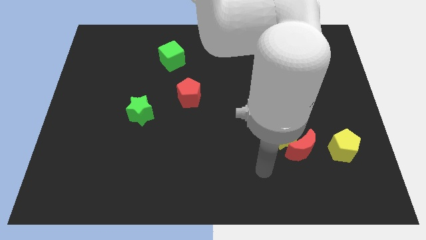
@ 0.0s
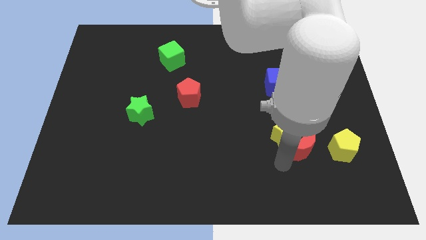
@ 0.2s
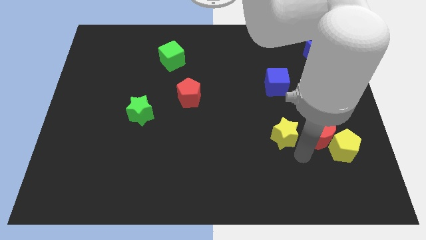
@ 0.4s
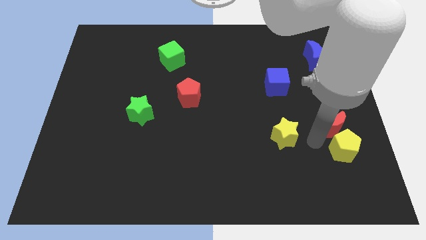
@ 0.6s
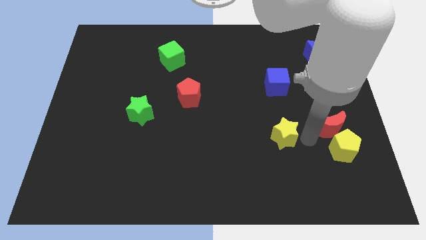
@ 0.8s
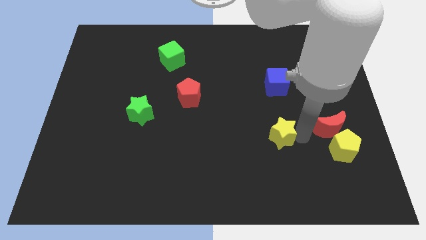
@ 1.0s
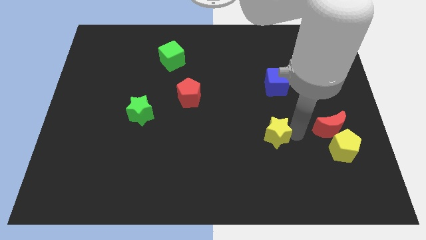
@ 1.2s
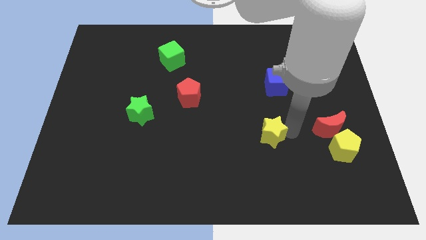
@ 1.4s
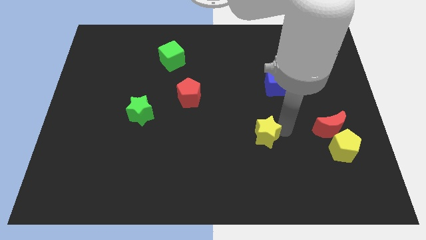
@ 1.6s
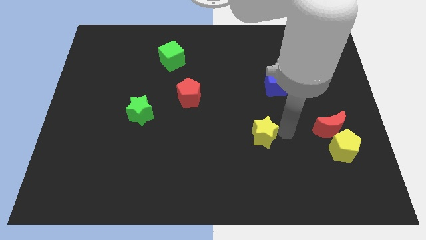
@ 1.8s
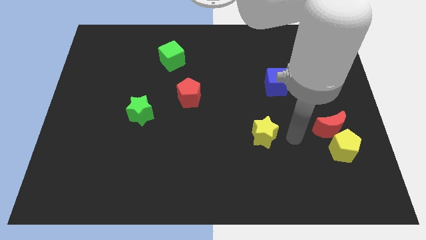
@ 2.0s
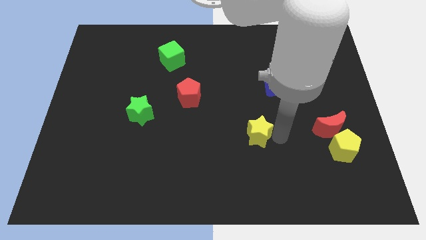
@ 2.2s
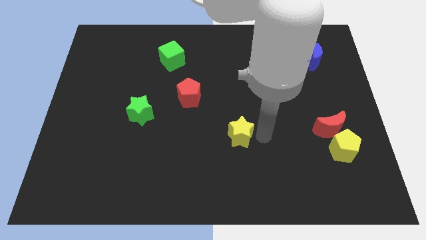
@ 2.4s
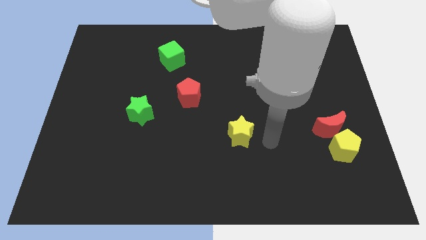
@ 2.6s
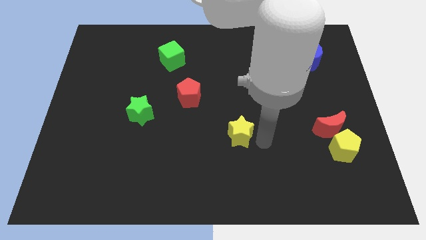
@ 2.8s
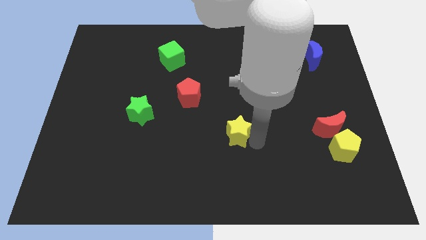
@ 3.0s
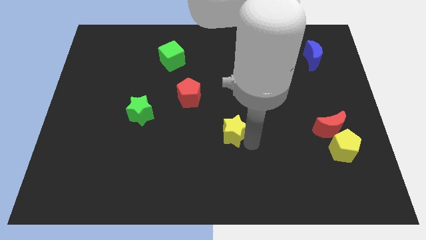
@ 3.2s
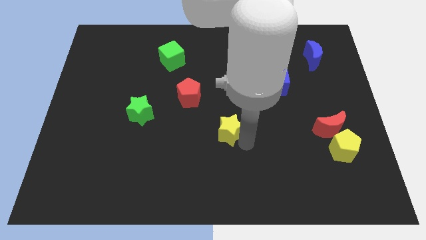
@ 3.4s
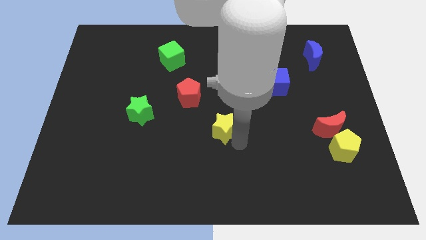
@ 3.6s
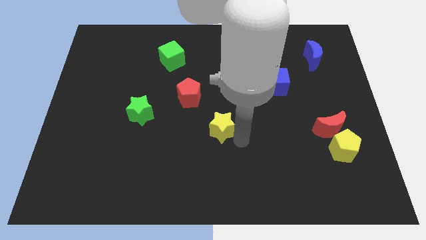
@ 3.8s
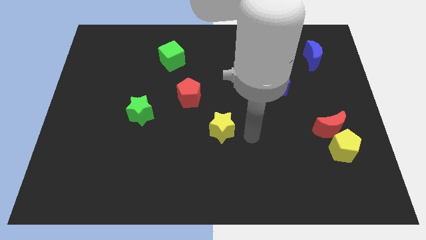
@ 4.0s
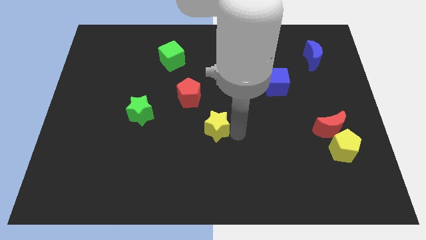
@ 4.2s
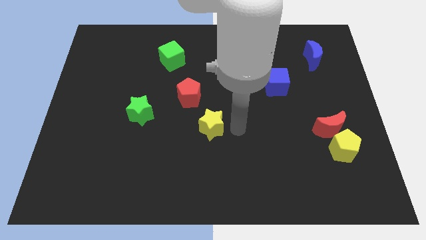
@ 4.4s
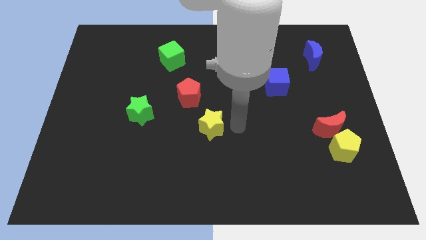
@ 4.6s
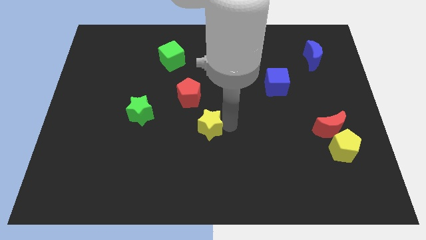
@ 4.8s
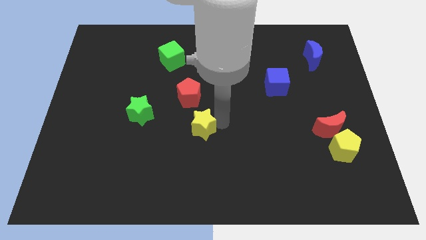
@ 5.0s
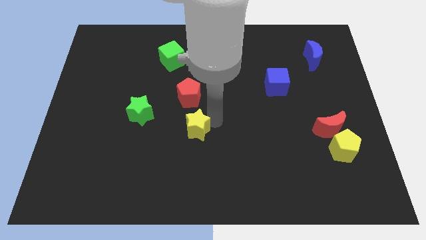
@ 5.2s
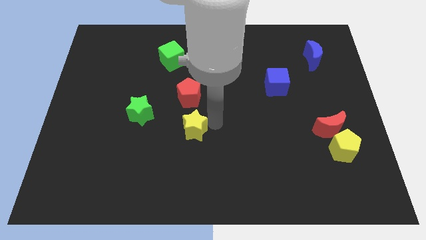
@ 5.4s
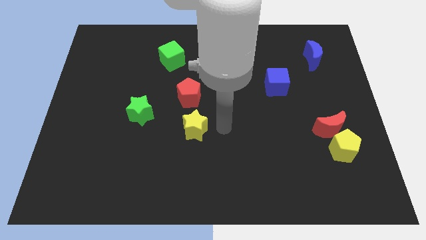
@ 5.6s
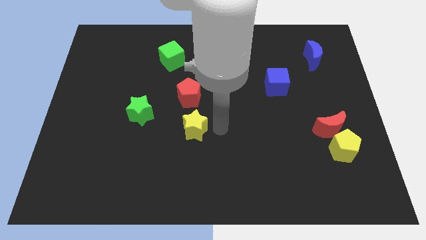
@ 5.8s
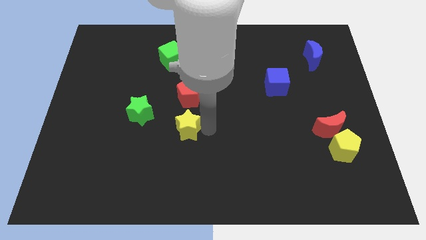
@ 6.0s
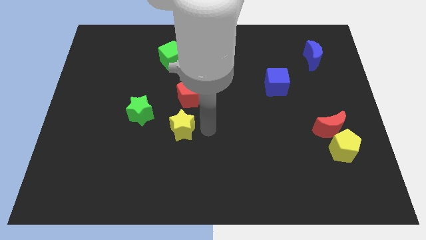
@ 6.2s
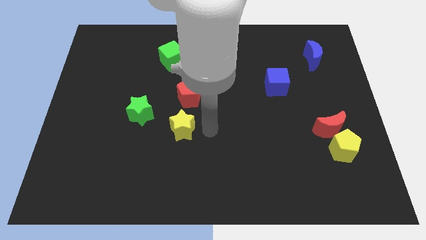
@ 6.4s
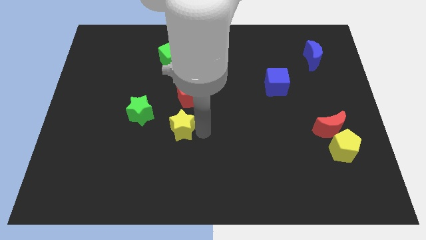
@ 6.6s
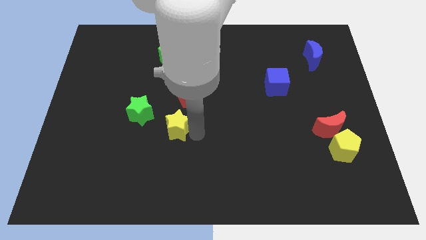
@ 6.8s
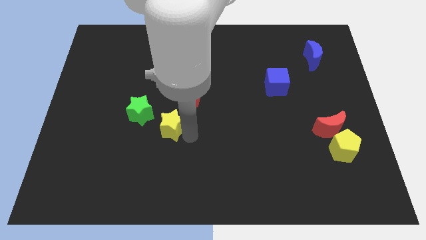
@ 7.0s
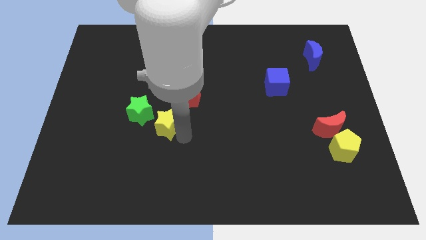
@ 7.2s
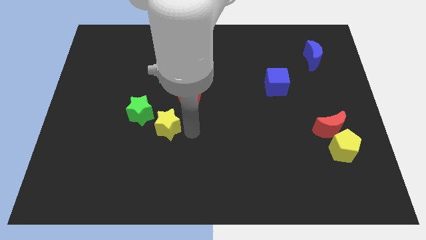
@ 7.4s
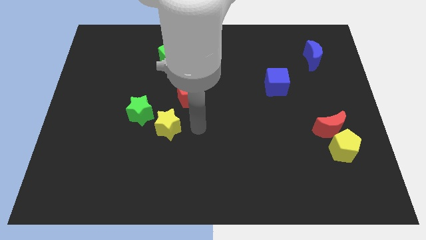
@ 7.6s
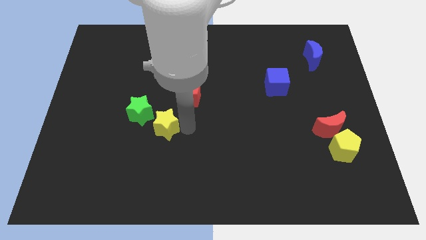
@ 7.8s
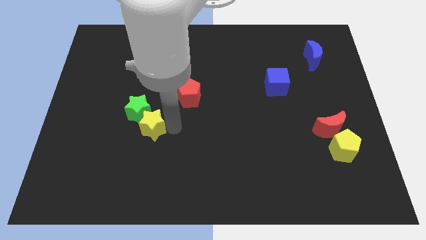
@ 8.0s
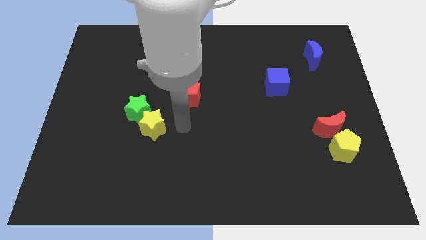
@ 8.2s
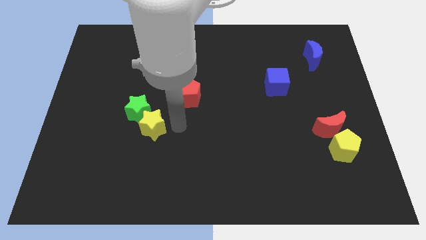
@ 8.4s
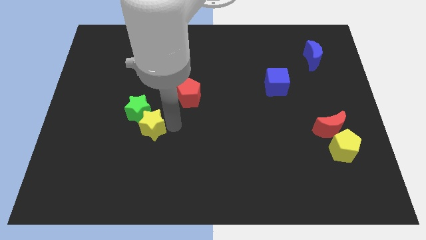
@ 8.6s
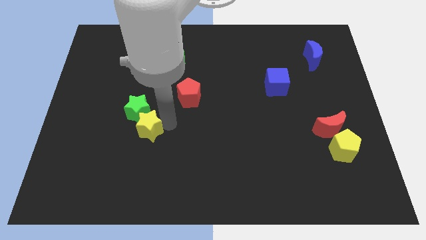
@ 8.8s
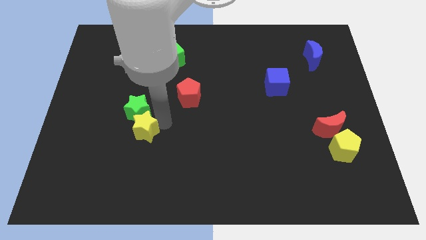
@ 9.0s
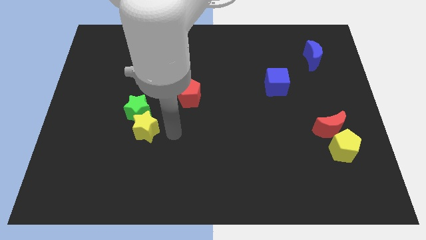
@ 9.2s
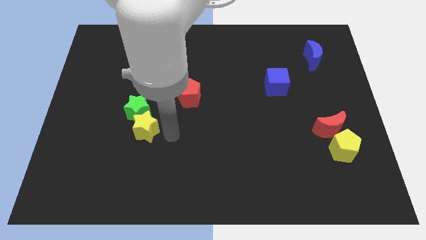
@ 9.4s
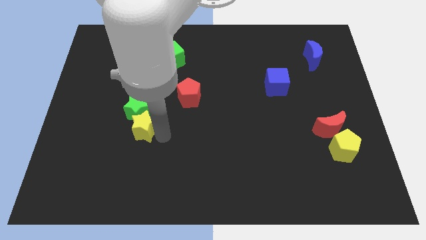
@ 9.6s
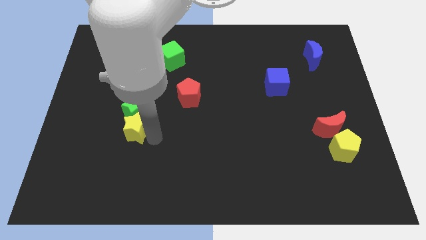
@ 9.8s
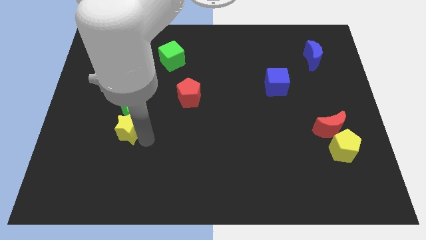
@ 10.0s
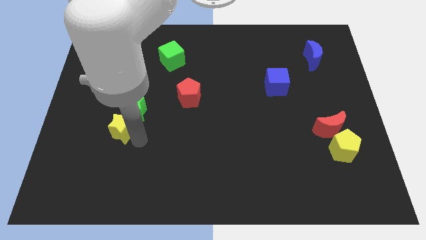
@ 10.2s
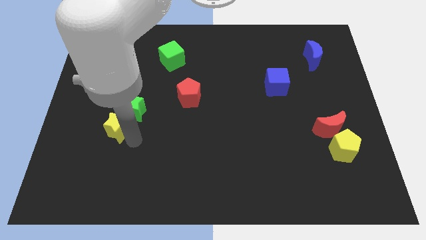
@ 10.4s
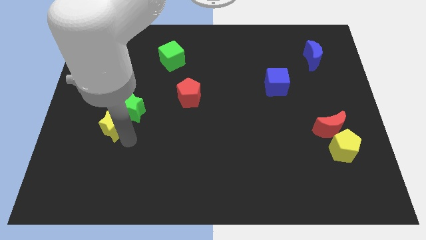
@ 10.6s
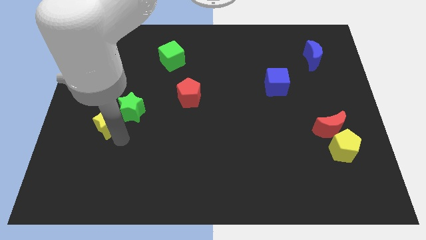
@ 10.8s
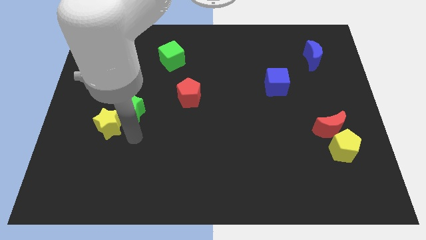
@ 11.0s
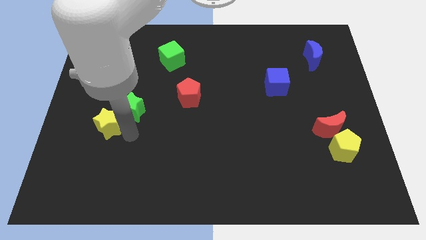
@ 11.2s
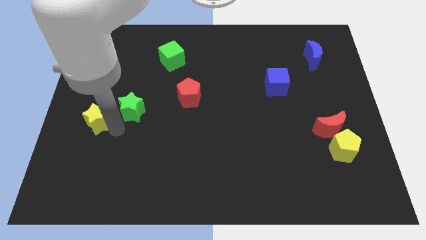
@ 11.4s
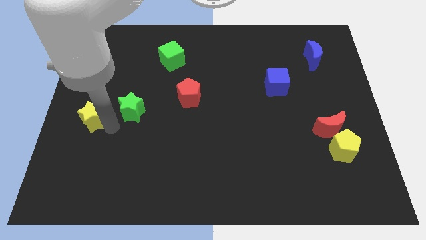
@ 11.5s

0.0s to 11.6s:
slide the yellow star to the left side of the board

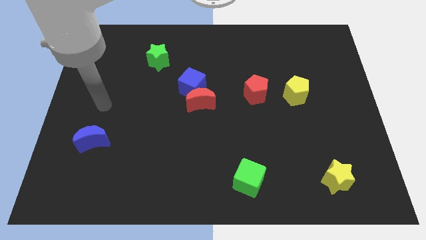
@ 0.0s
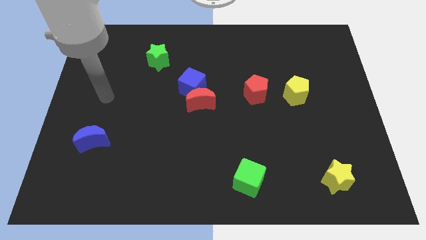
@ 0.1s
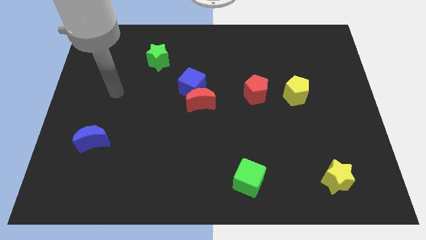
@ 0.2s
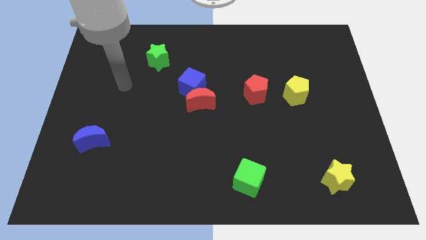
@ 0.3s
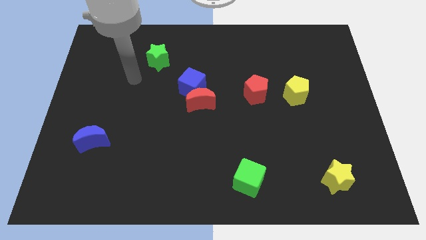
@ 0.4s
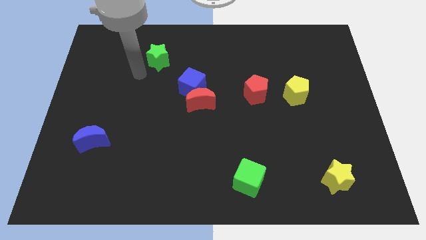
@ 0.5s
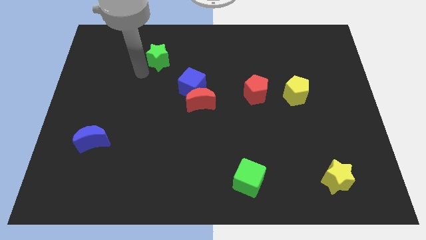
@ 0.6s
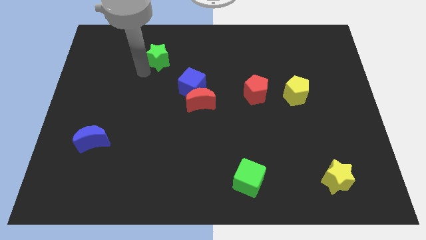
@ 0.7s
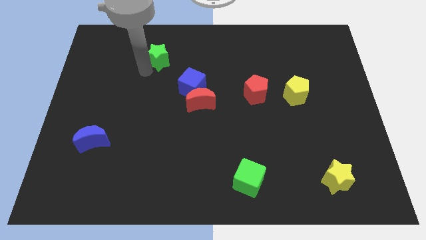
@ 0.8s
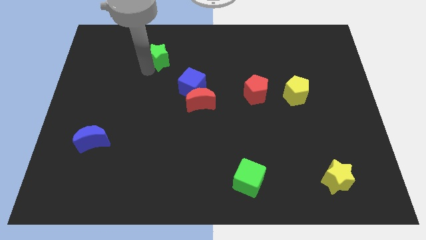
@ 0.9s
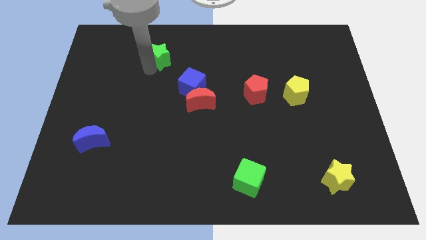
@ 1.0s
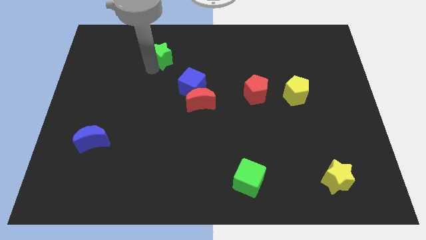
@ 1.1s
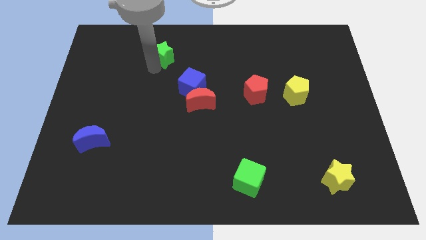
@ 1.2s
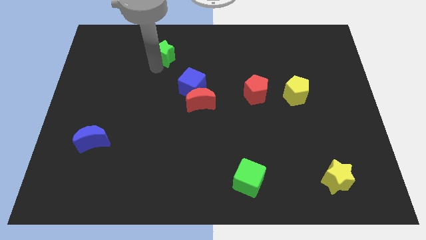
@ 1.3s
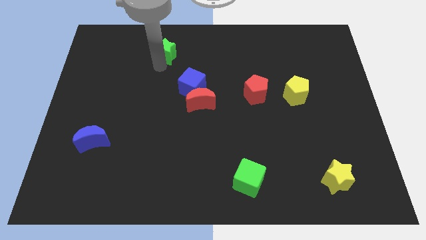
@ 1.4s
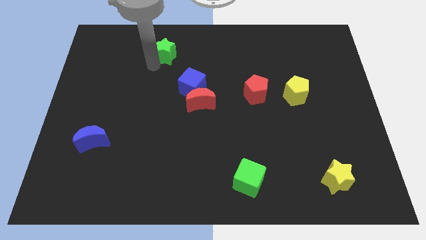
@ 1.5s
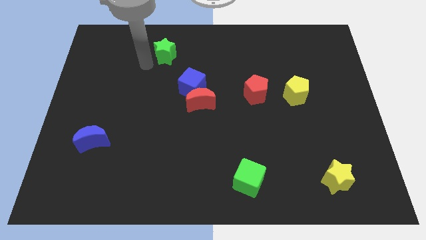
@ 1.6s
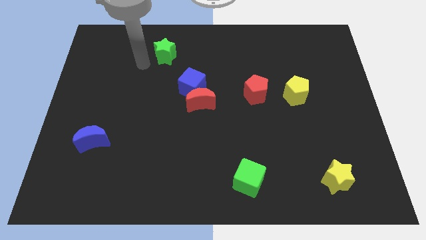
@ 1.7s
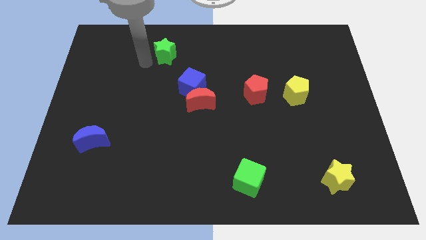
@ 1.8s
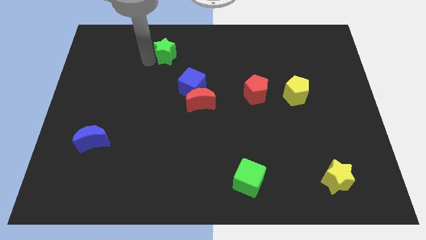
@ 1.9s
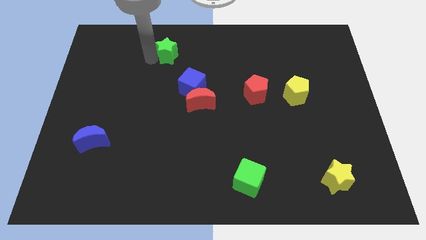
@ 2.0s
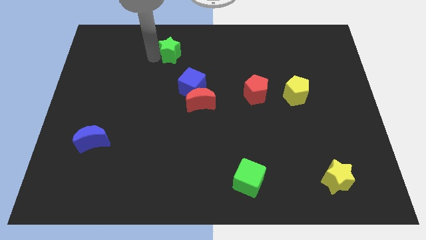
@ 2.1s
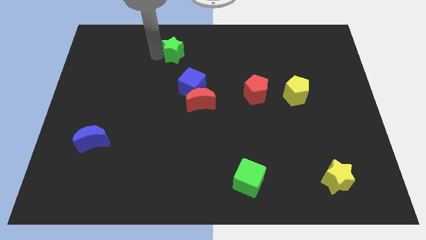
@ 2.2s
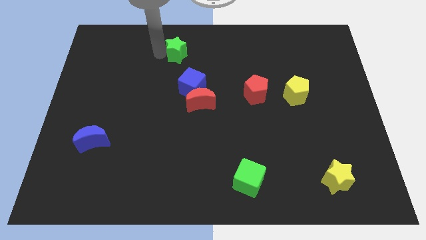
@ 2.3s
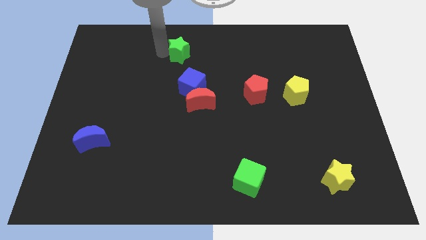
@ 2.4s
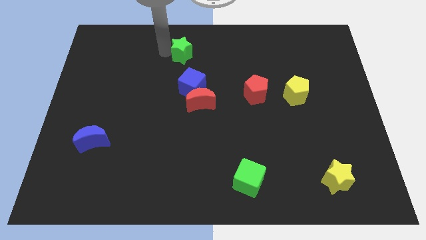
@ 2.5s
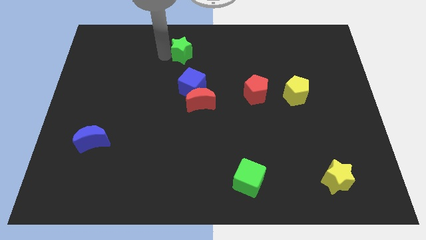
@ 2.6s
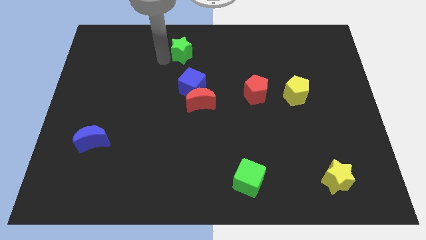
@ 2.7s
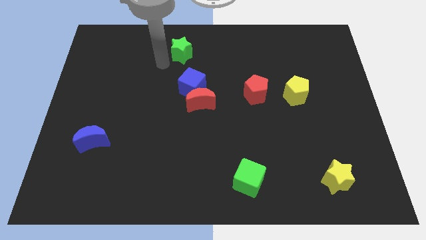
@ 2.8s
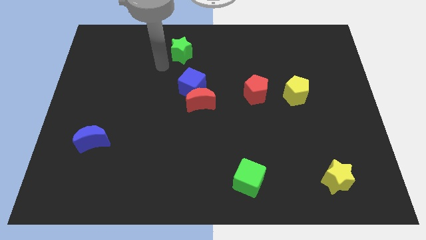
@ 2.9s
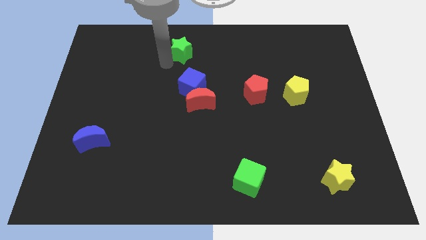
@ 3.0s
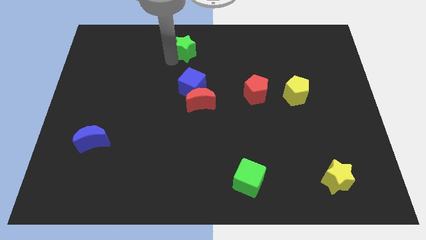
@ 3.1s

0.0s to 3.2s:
slide the green star to the top side
